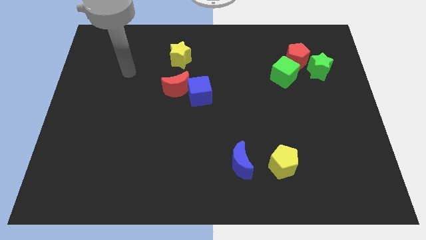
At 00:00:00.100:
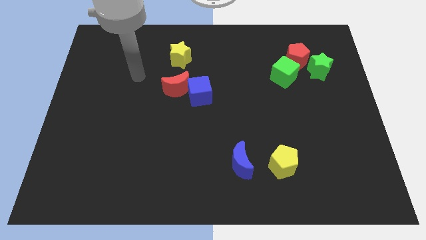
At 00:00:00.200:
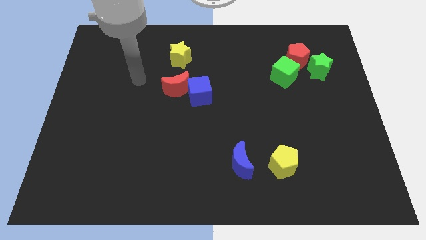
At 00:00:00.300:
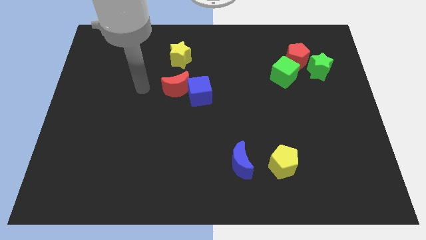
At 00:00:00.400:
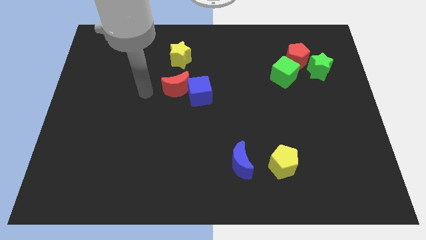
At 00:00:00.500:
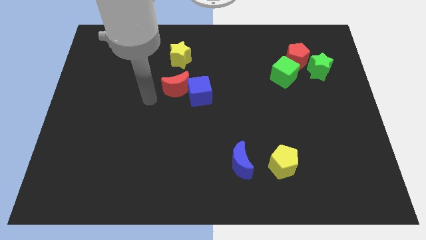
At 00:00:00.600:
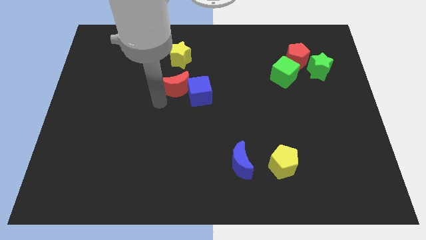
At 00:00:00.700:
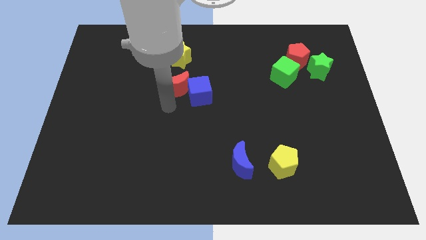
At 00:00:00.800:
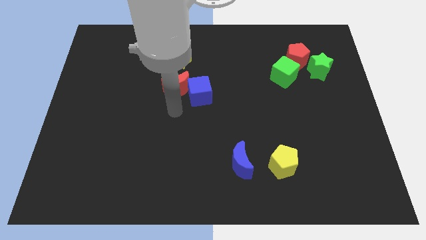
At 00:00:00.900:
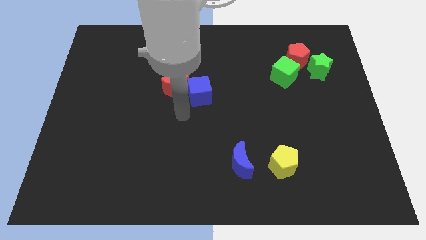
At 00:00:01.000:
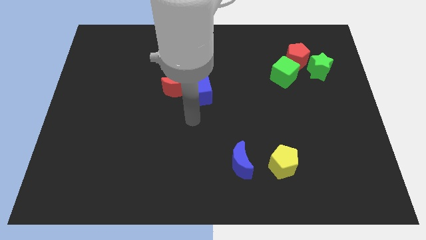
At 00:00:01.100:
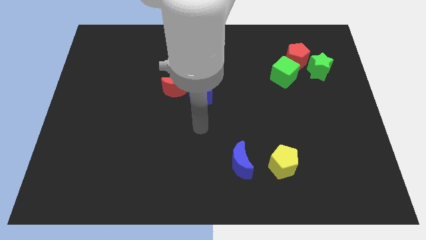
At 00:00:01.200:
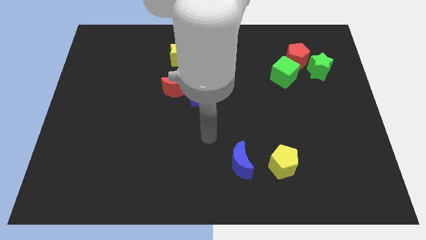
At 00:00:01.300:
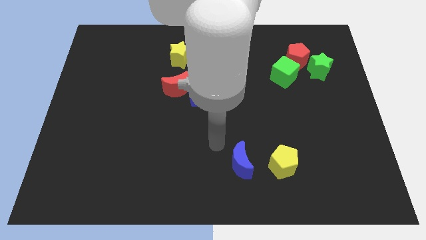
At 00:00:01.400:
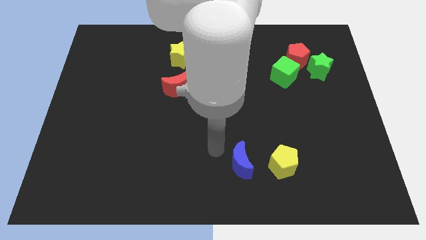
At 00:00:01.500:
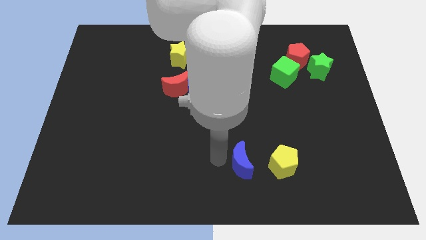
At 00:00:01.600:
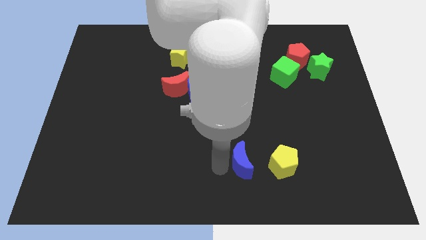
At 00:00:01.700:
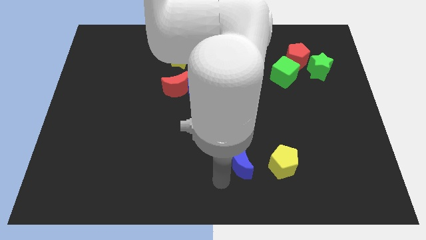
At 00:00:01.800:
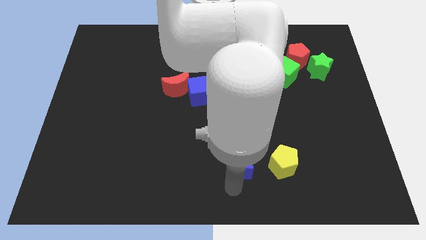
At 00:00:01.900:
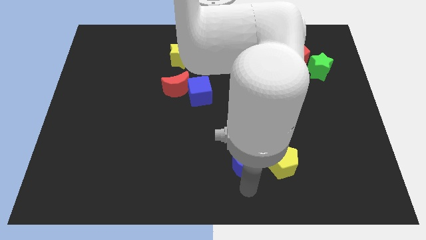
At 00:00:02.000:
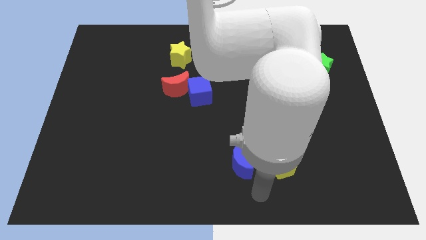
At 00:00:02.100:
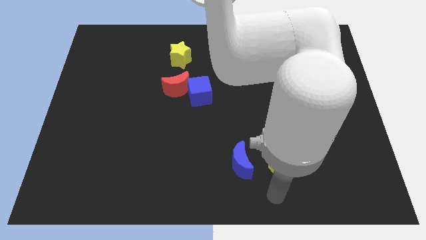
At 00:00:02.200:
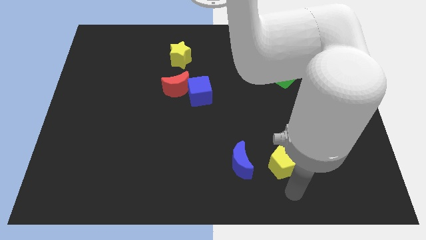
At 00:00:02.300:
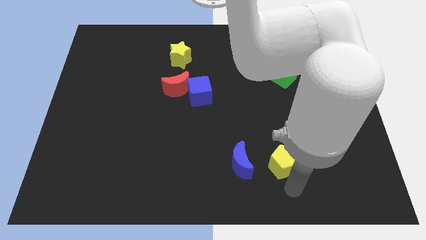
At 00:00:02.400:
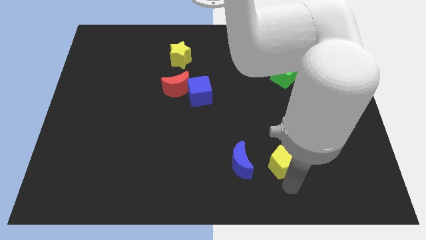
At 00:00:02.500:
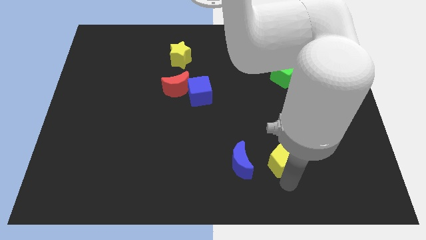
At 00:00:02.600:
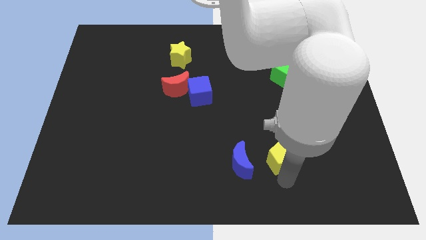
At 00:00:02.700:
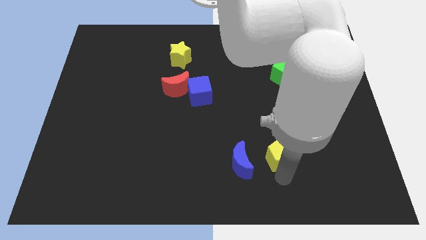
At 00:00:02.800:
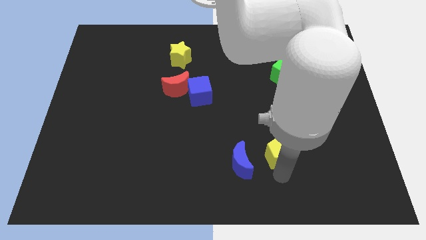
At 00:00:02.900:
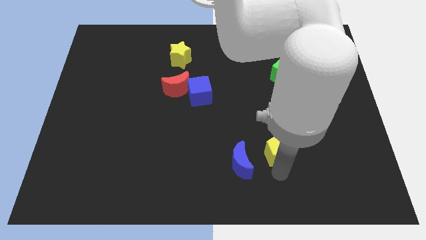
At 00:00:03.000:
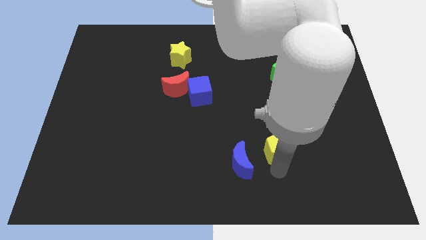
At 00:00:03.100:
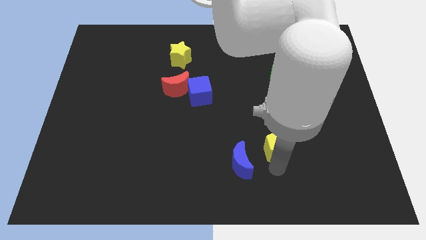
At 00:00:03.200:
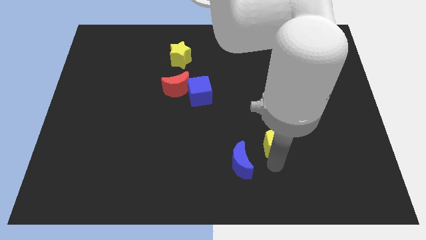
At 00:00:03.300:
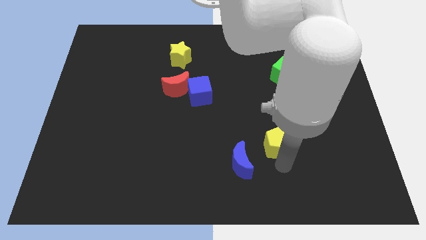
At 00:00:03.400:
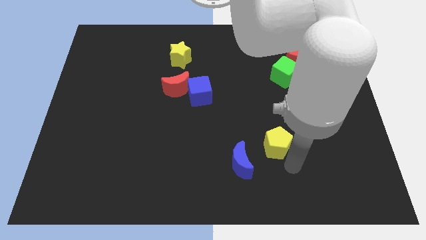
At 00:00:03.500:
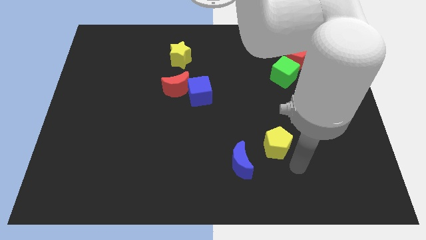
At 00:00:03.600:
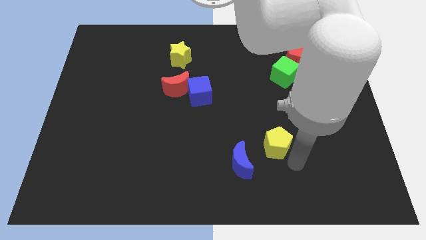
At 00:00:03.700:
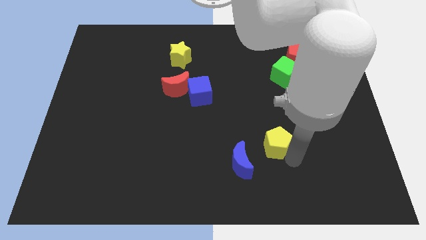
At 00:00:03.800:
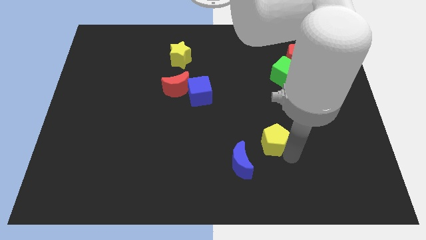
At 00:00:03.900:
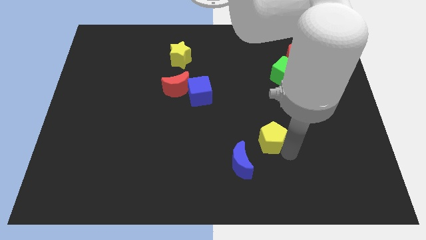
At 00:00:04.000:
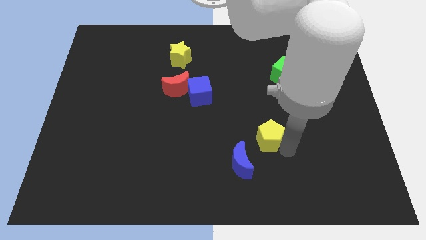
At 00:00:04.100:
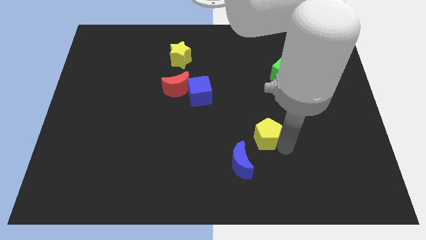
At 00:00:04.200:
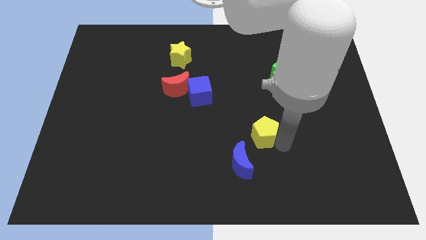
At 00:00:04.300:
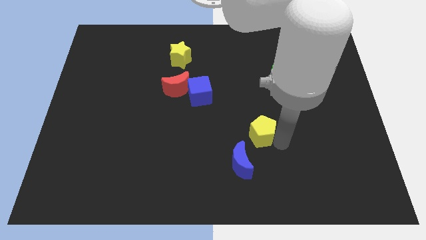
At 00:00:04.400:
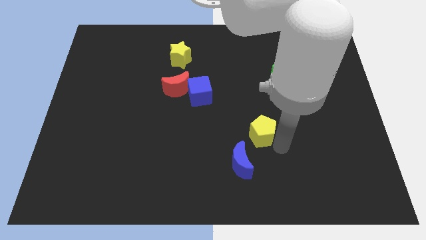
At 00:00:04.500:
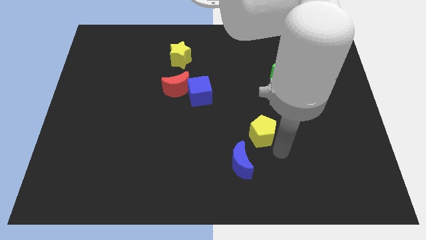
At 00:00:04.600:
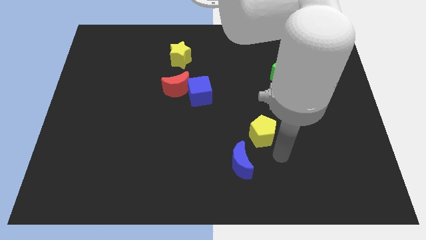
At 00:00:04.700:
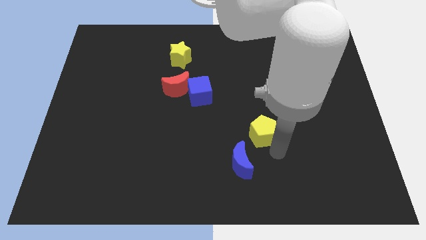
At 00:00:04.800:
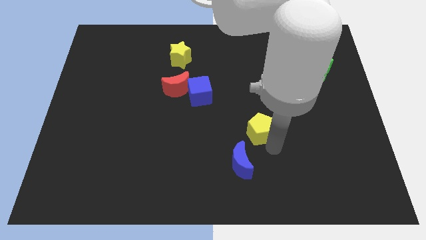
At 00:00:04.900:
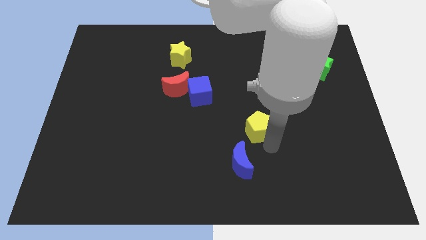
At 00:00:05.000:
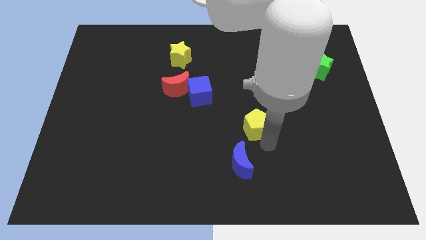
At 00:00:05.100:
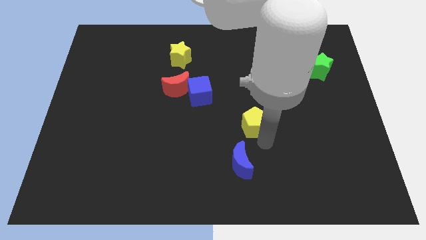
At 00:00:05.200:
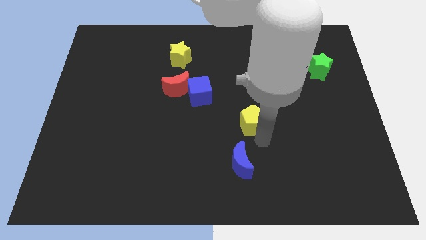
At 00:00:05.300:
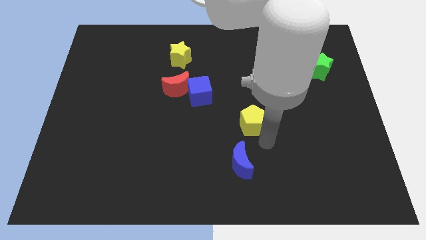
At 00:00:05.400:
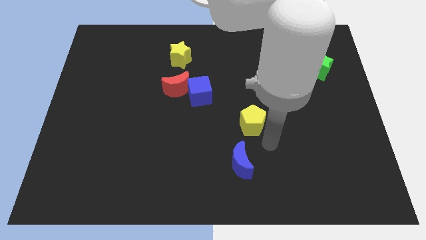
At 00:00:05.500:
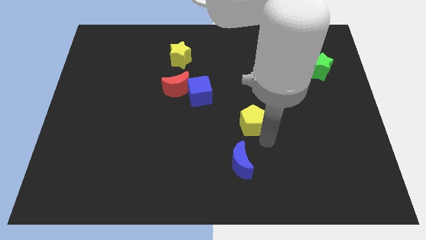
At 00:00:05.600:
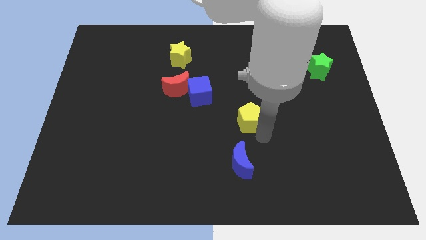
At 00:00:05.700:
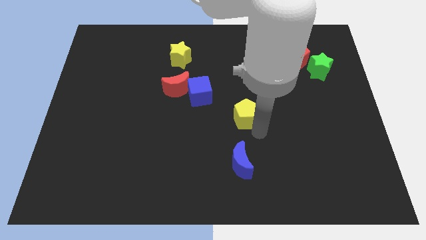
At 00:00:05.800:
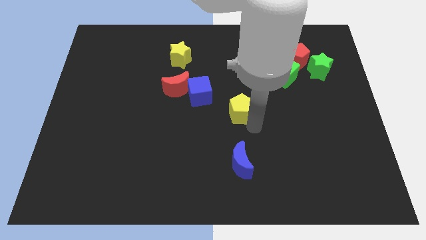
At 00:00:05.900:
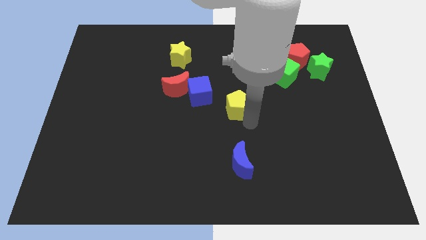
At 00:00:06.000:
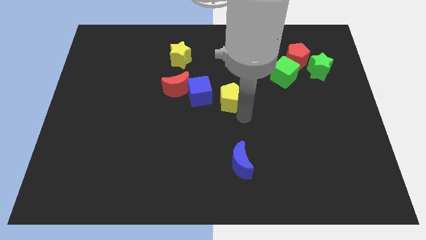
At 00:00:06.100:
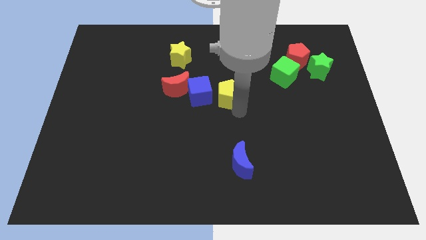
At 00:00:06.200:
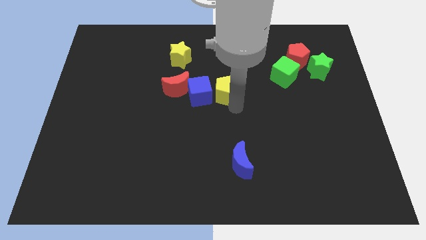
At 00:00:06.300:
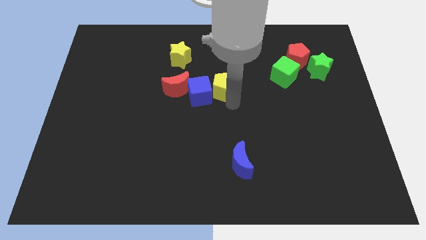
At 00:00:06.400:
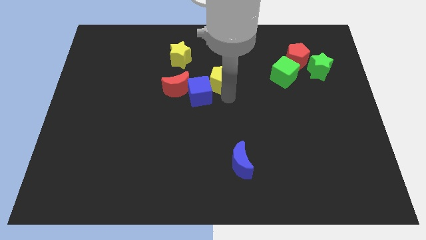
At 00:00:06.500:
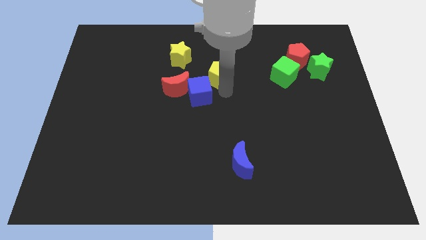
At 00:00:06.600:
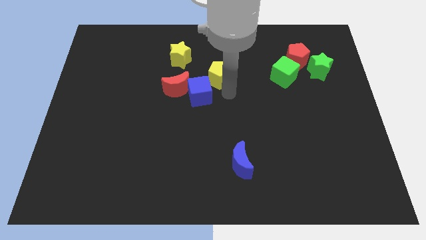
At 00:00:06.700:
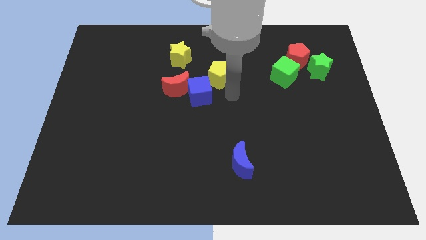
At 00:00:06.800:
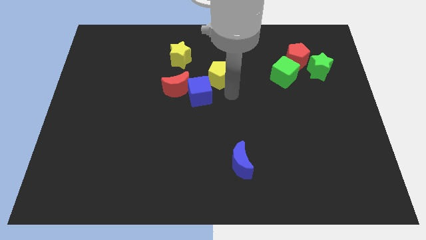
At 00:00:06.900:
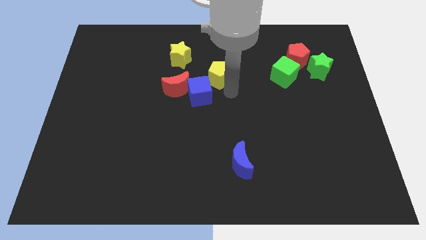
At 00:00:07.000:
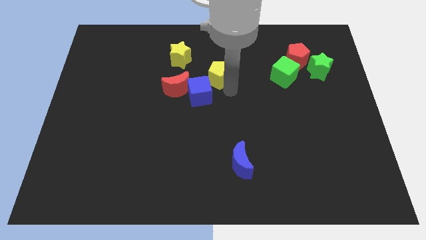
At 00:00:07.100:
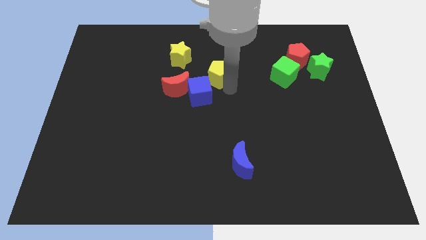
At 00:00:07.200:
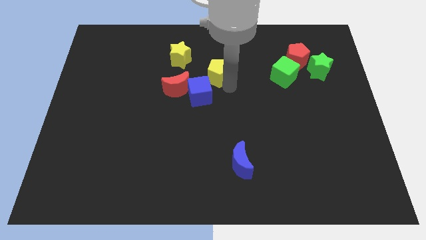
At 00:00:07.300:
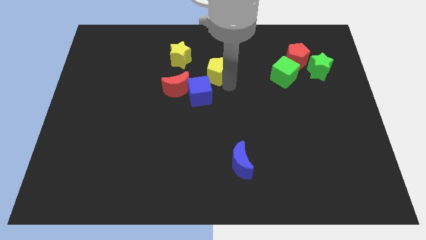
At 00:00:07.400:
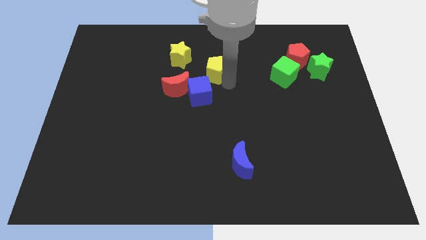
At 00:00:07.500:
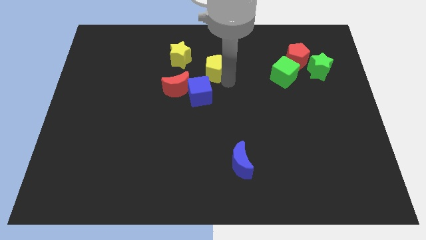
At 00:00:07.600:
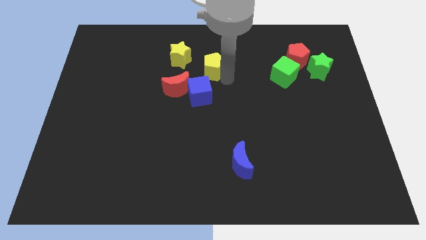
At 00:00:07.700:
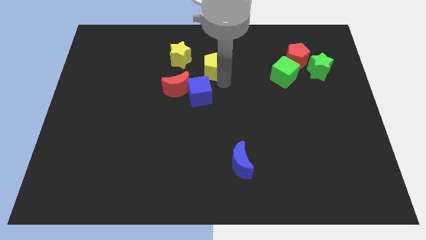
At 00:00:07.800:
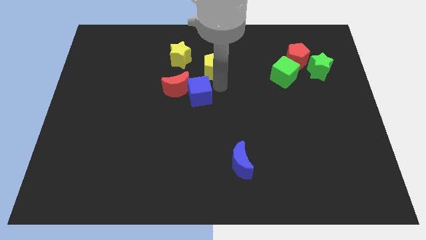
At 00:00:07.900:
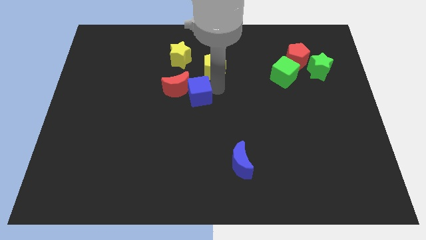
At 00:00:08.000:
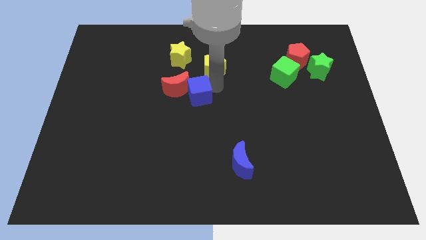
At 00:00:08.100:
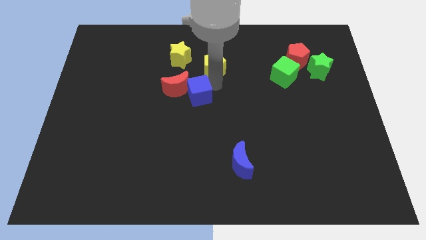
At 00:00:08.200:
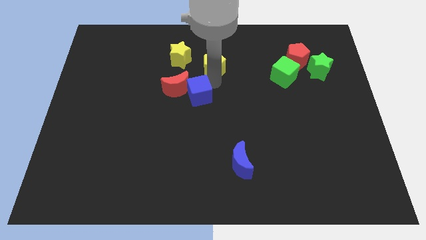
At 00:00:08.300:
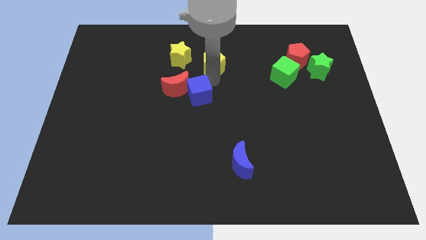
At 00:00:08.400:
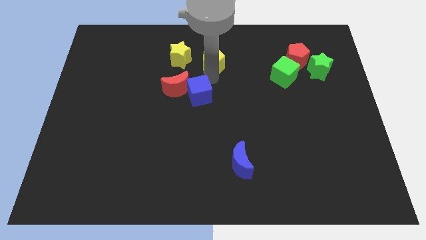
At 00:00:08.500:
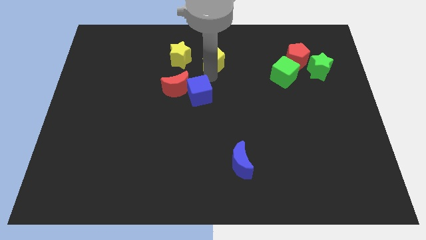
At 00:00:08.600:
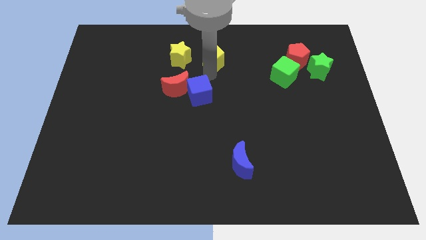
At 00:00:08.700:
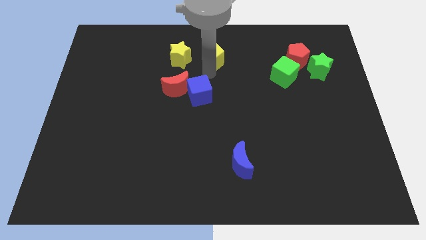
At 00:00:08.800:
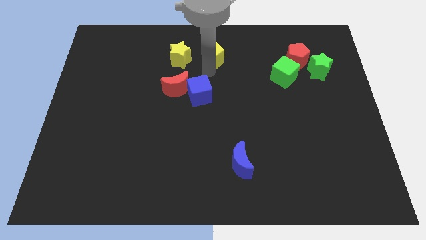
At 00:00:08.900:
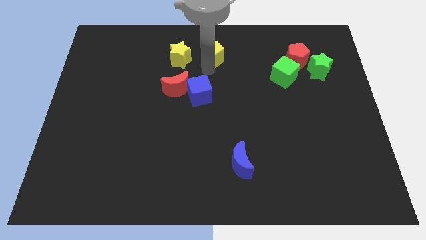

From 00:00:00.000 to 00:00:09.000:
move the yellow pentagon to the top
